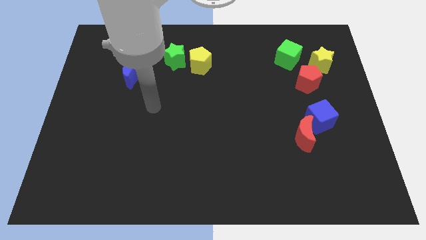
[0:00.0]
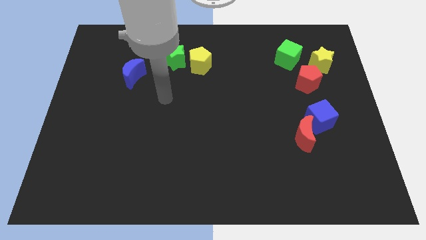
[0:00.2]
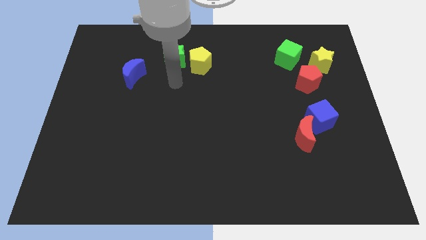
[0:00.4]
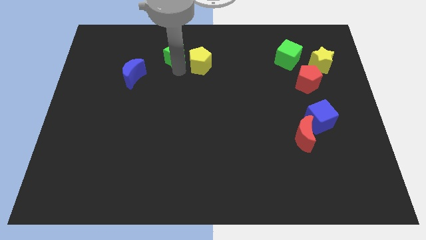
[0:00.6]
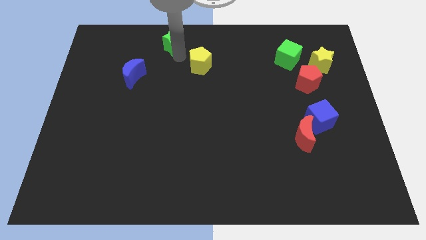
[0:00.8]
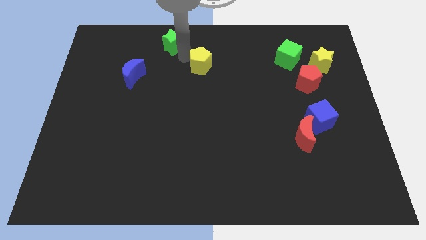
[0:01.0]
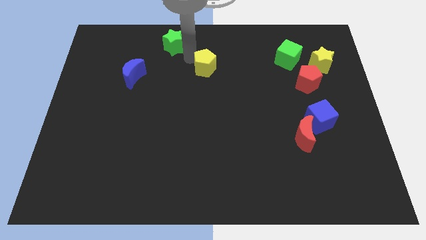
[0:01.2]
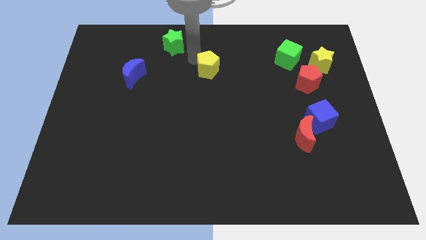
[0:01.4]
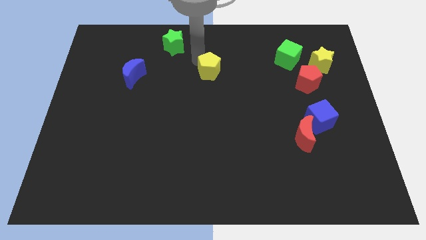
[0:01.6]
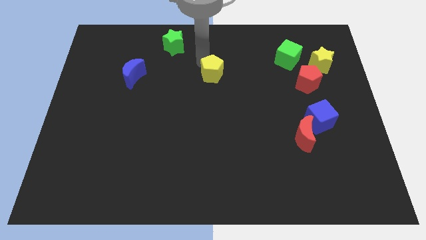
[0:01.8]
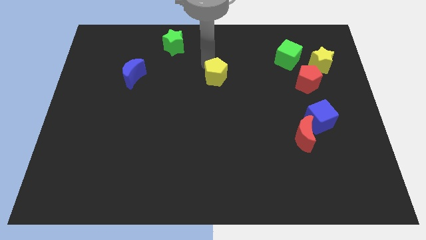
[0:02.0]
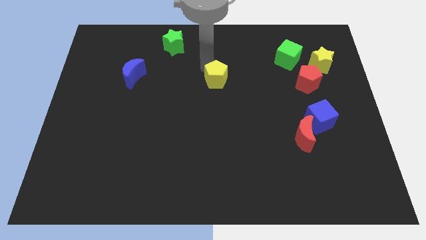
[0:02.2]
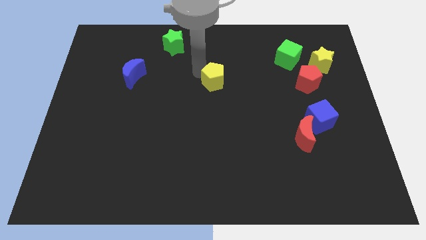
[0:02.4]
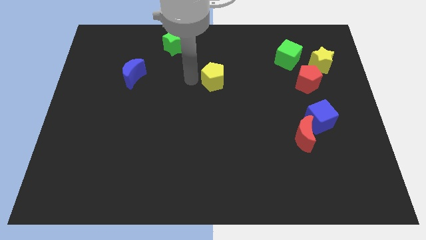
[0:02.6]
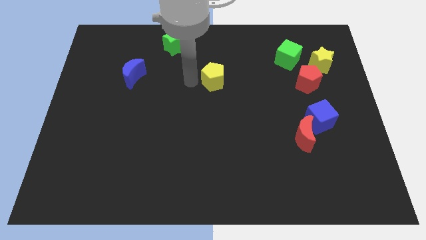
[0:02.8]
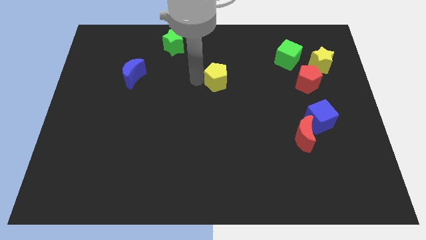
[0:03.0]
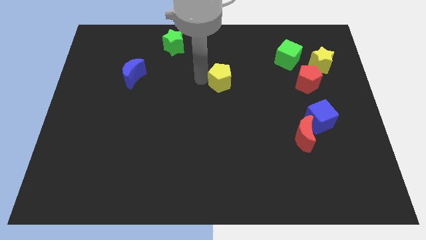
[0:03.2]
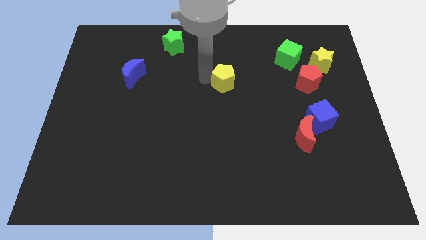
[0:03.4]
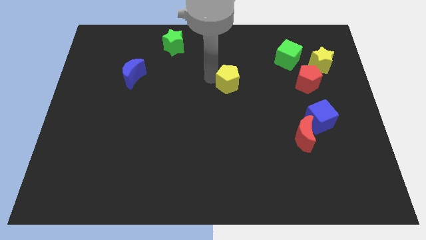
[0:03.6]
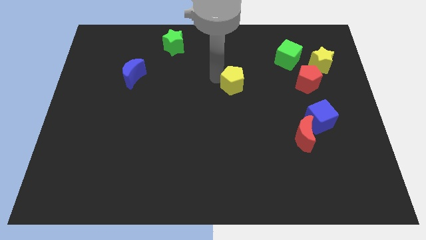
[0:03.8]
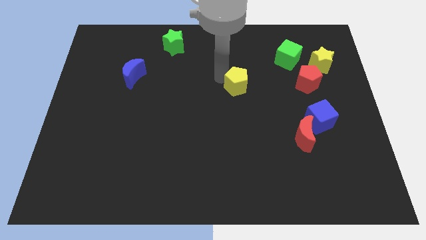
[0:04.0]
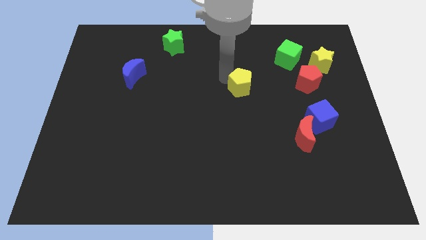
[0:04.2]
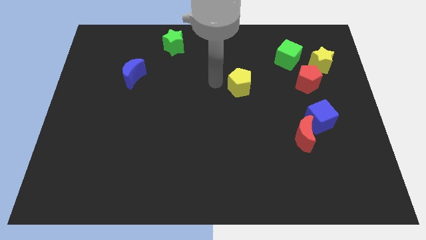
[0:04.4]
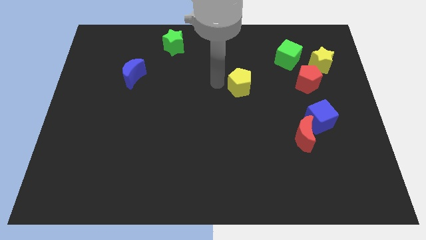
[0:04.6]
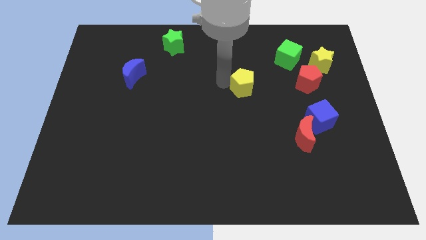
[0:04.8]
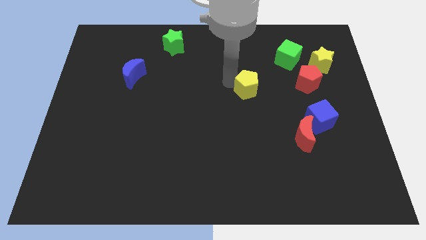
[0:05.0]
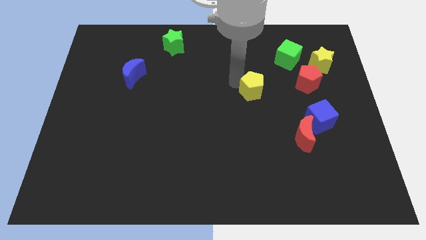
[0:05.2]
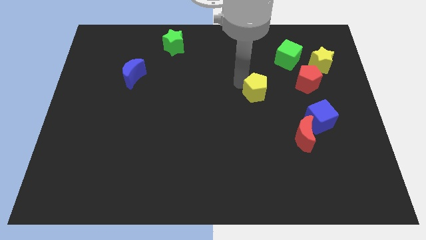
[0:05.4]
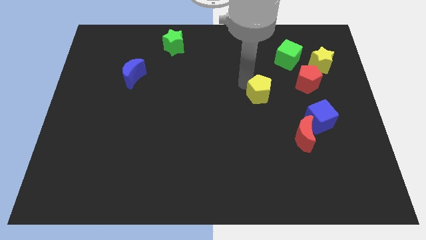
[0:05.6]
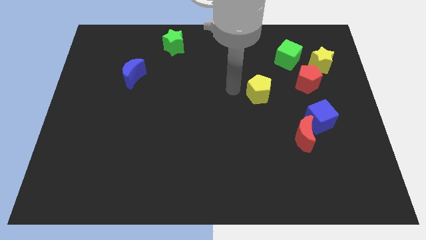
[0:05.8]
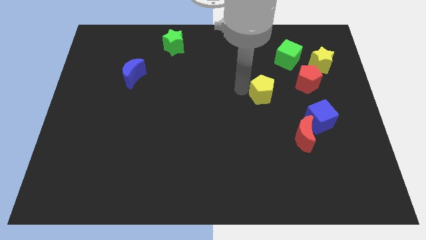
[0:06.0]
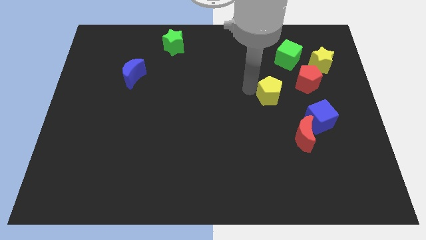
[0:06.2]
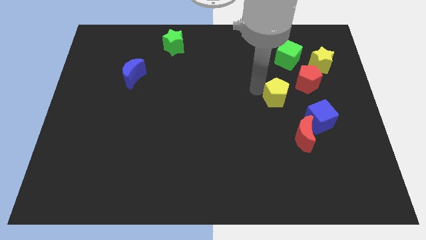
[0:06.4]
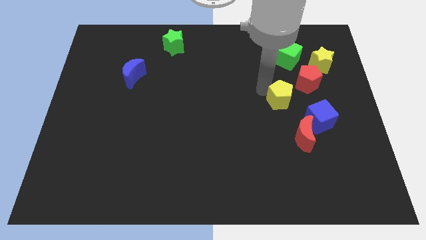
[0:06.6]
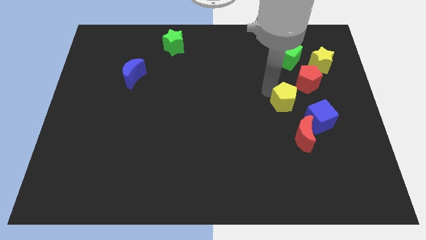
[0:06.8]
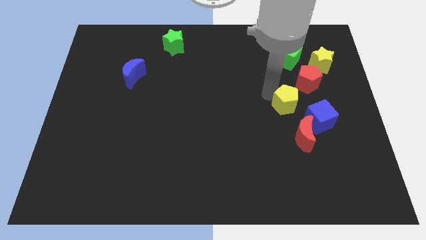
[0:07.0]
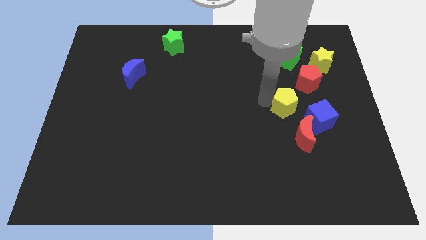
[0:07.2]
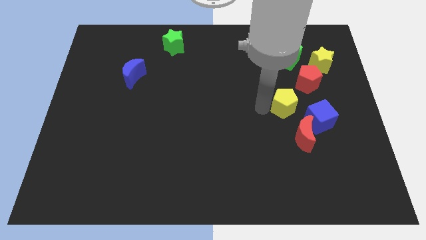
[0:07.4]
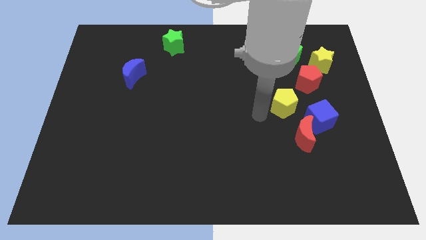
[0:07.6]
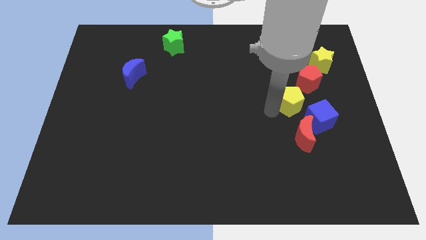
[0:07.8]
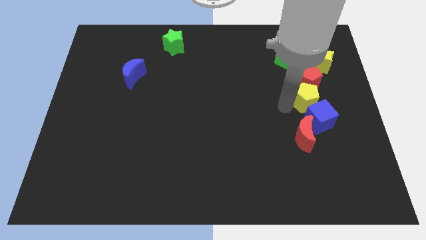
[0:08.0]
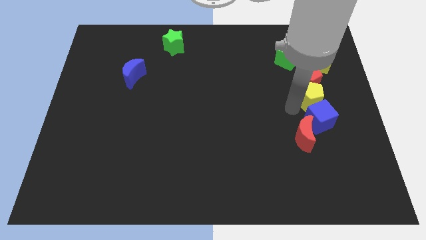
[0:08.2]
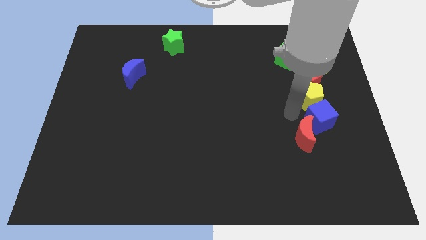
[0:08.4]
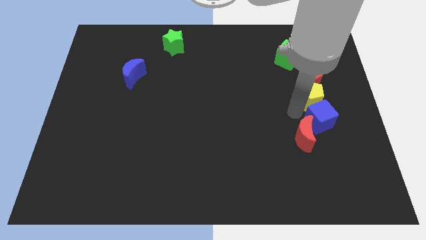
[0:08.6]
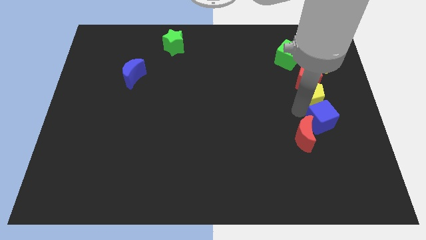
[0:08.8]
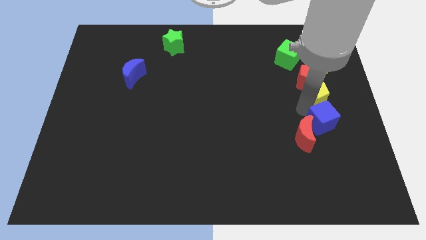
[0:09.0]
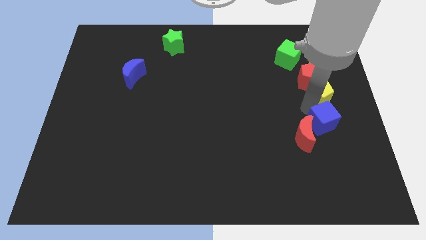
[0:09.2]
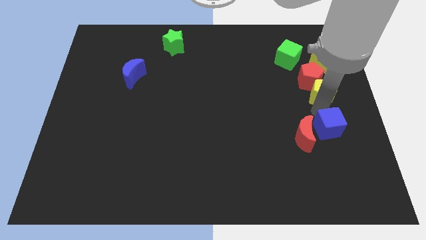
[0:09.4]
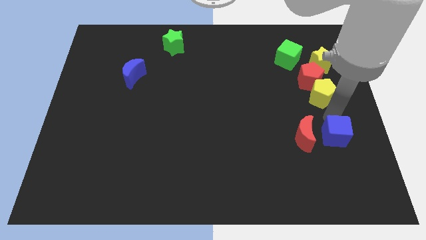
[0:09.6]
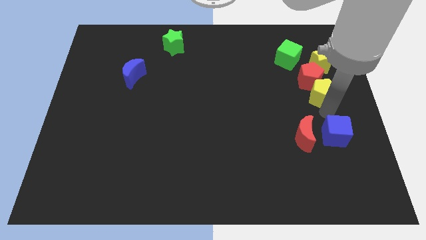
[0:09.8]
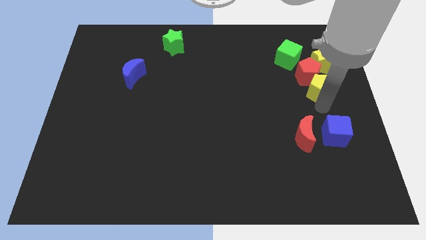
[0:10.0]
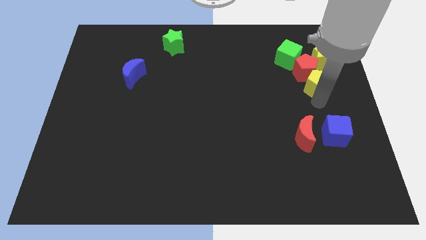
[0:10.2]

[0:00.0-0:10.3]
move the yellow pentagon to the bottom right of the green cube

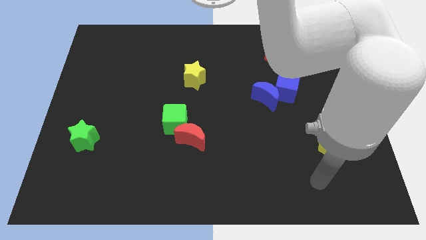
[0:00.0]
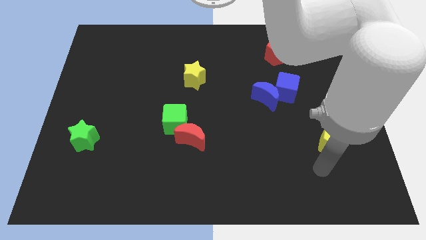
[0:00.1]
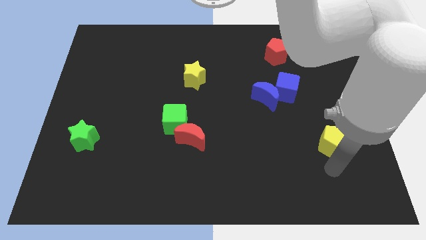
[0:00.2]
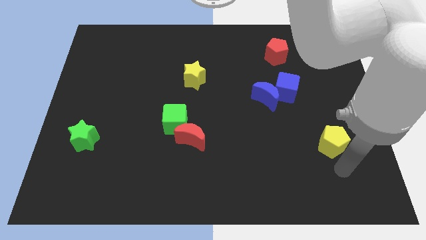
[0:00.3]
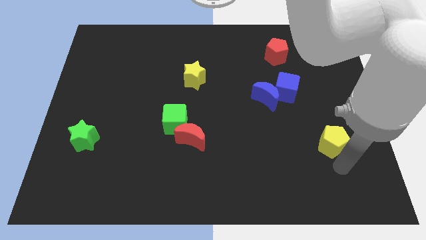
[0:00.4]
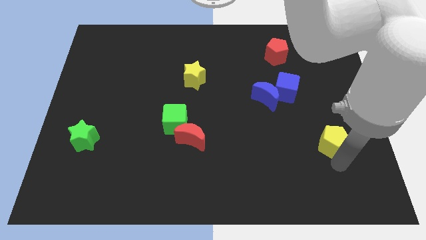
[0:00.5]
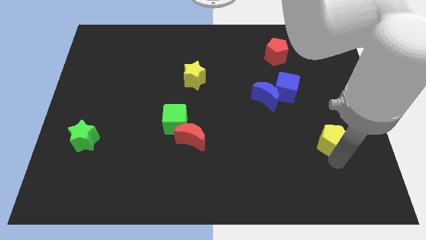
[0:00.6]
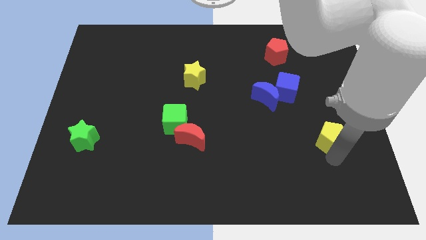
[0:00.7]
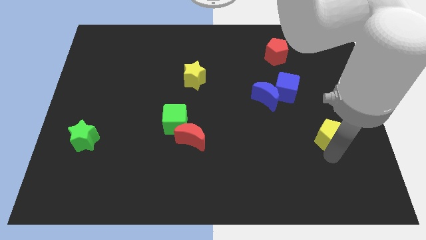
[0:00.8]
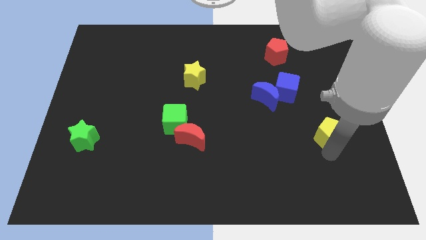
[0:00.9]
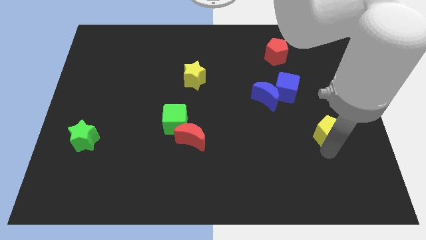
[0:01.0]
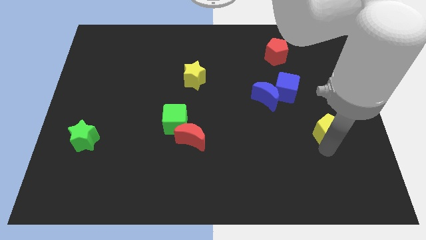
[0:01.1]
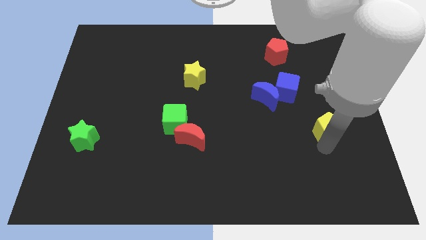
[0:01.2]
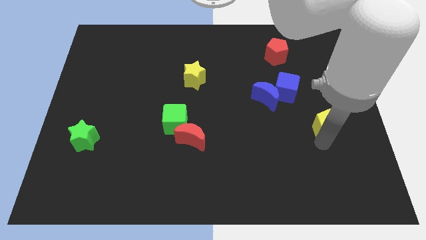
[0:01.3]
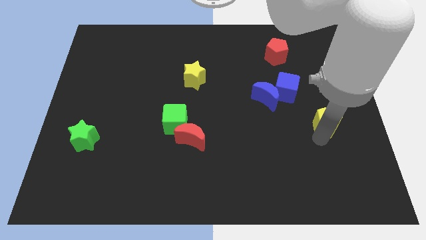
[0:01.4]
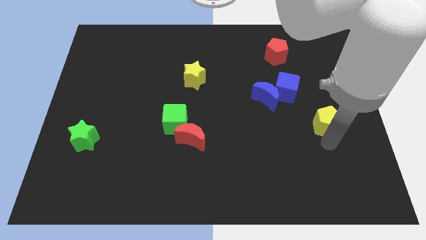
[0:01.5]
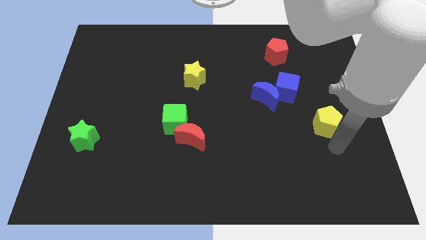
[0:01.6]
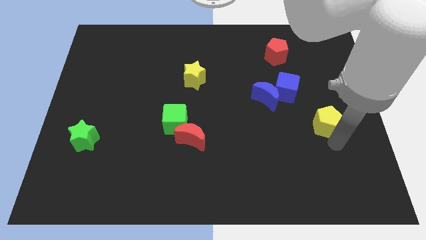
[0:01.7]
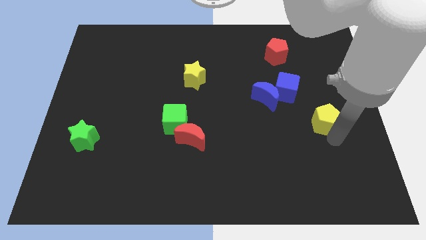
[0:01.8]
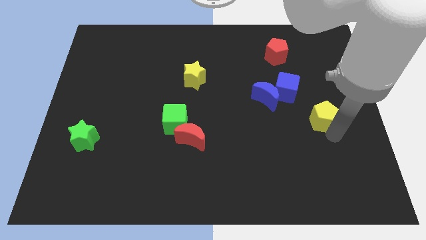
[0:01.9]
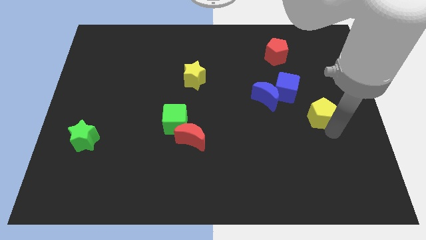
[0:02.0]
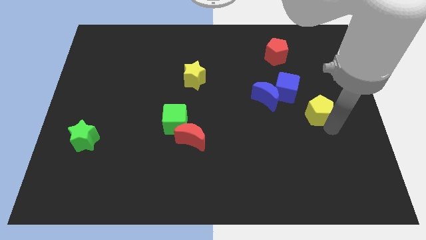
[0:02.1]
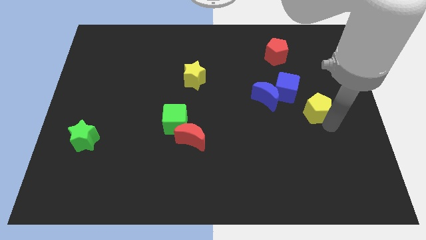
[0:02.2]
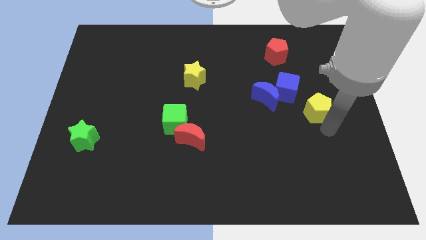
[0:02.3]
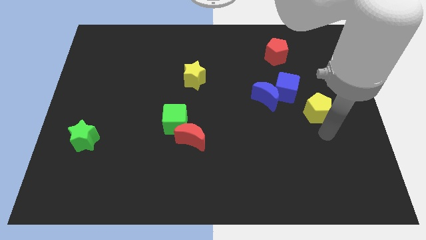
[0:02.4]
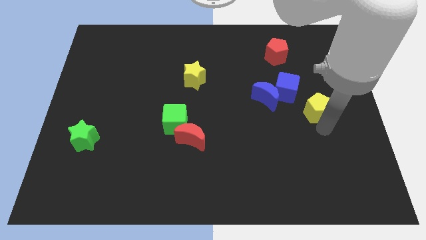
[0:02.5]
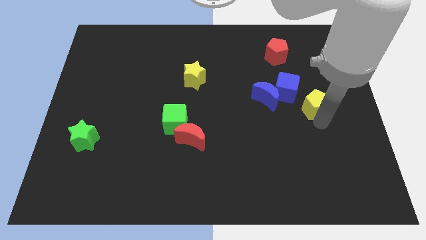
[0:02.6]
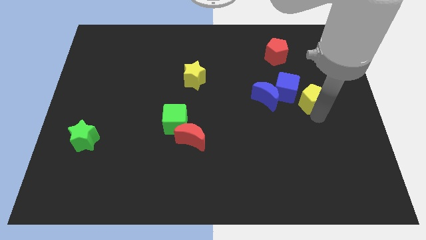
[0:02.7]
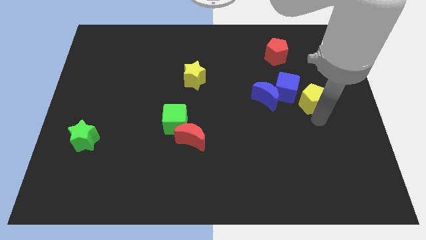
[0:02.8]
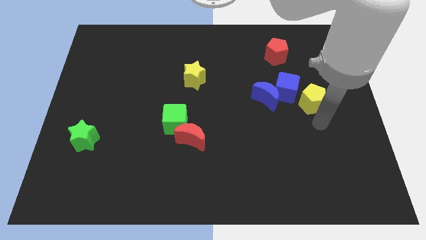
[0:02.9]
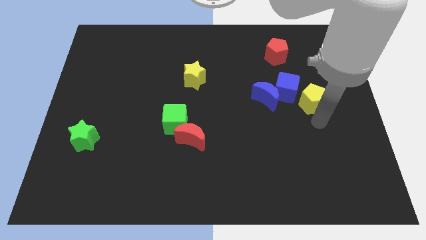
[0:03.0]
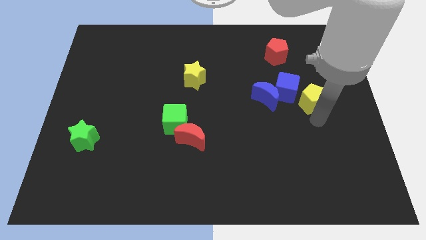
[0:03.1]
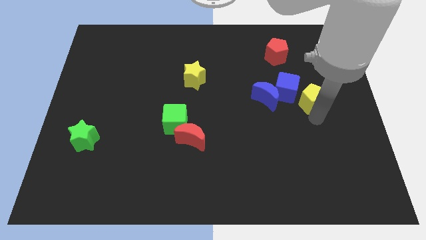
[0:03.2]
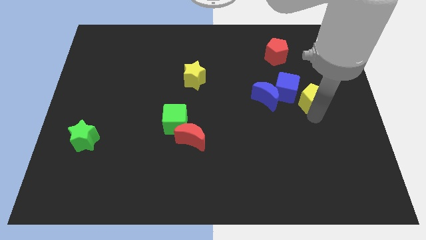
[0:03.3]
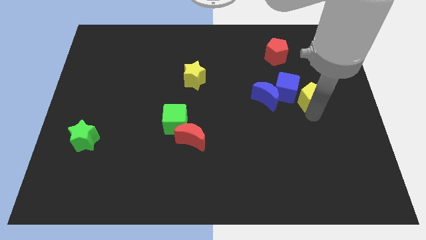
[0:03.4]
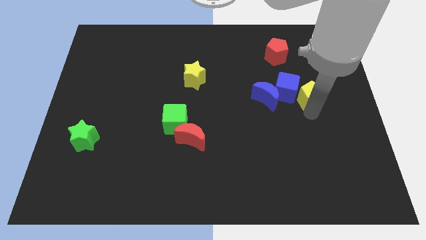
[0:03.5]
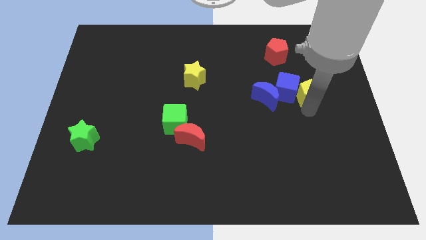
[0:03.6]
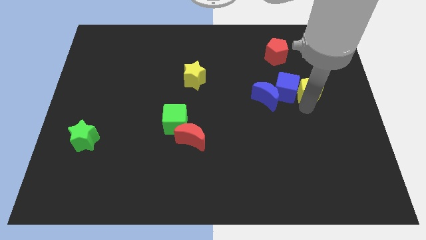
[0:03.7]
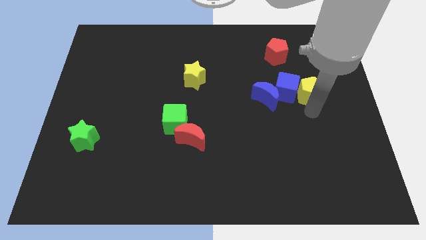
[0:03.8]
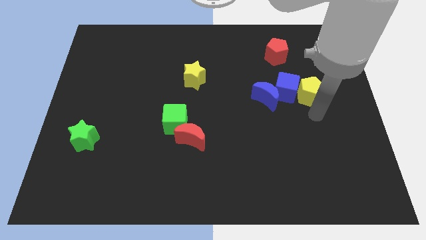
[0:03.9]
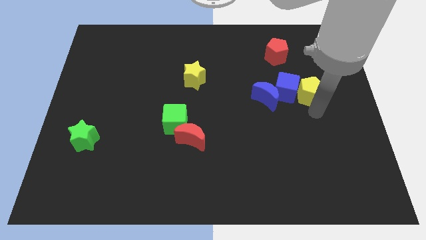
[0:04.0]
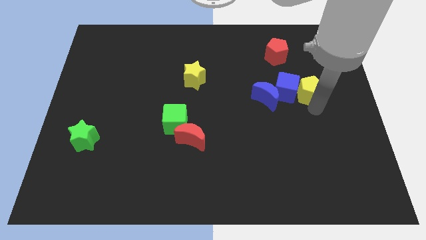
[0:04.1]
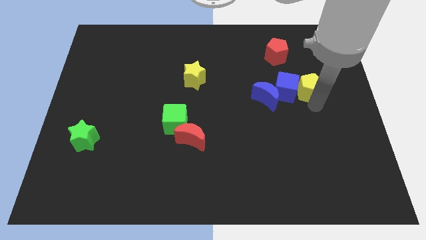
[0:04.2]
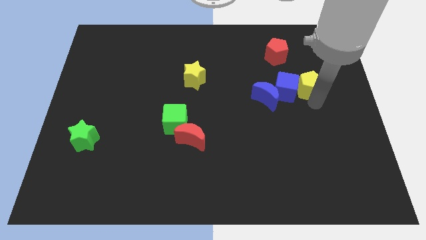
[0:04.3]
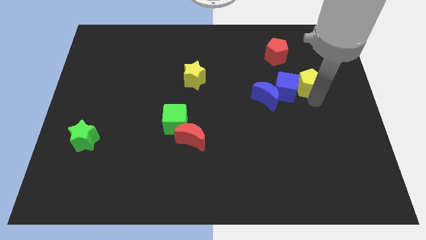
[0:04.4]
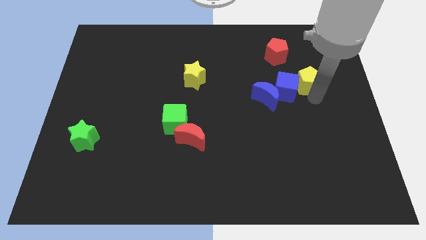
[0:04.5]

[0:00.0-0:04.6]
put the yellow pentagon diagonally down and to the right of the red pentagon
